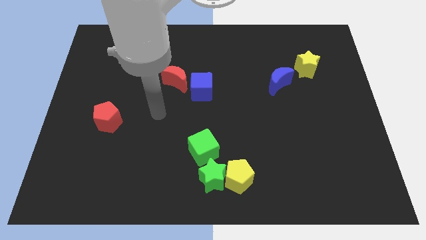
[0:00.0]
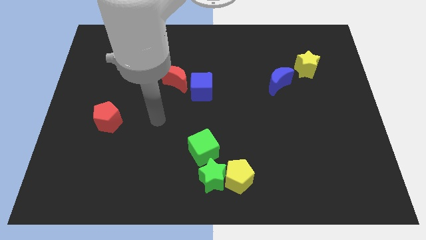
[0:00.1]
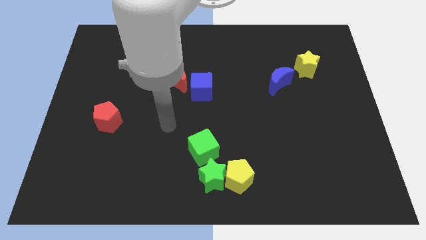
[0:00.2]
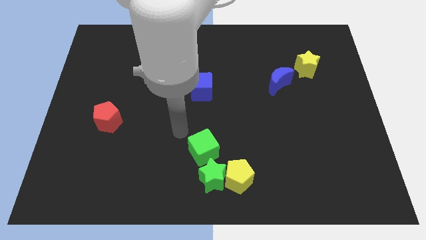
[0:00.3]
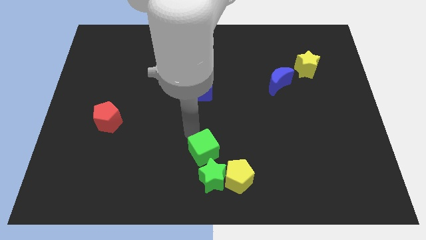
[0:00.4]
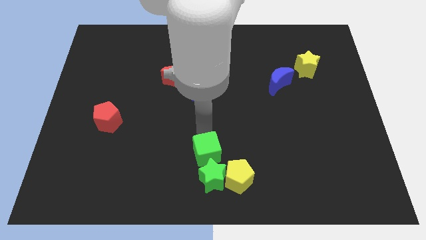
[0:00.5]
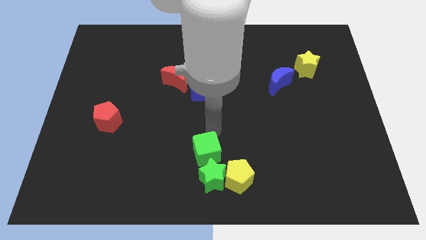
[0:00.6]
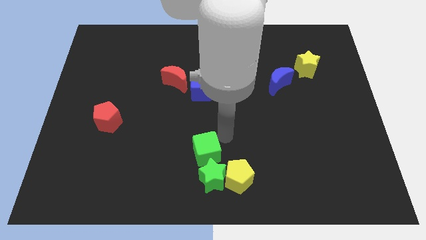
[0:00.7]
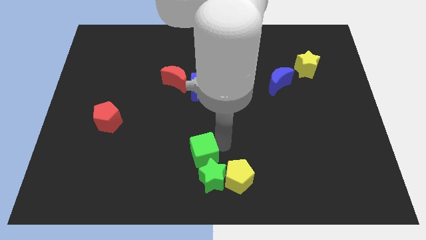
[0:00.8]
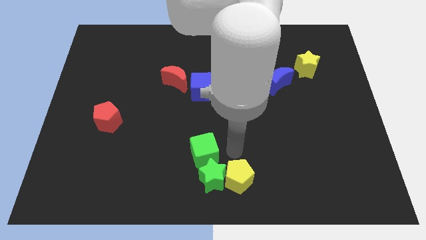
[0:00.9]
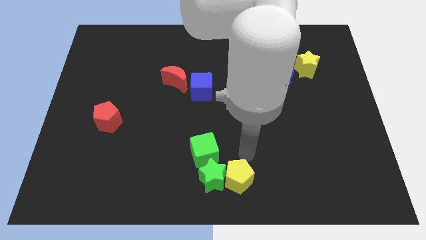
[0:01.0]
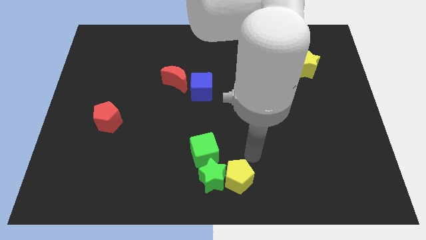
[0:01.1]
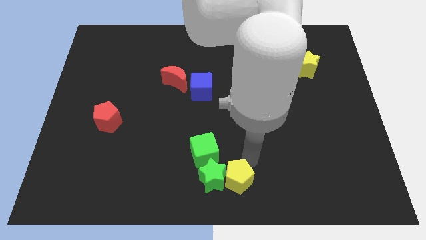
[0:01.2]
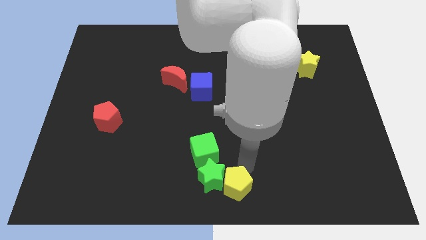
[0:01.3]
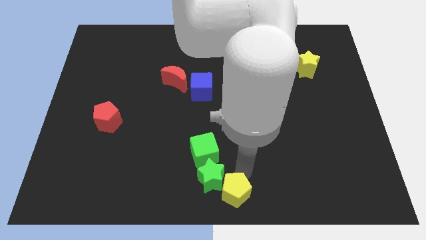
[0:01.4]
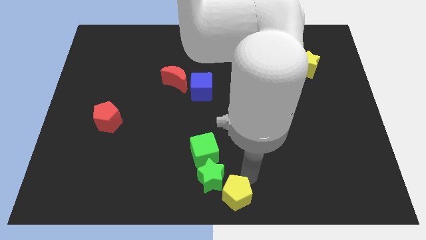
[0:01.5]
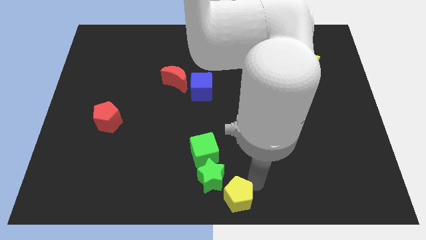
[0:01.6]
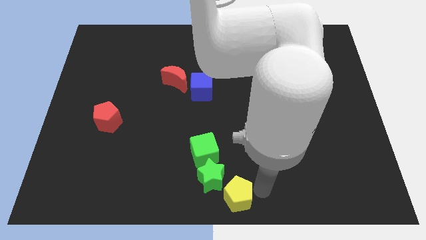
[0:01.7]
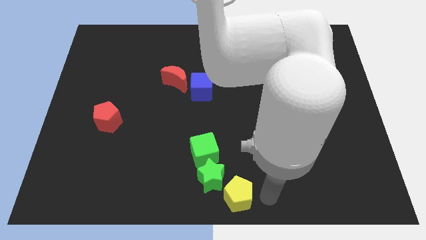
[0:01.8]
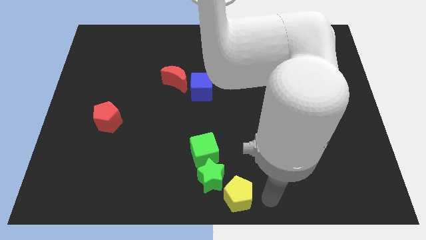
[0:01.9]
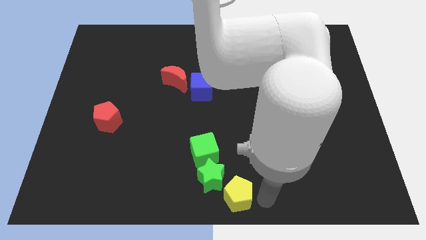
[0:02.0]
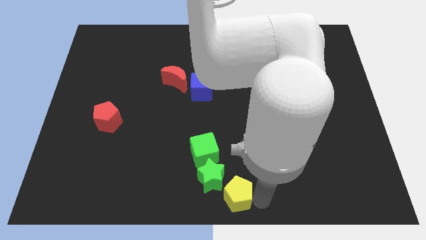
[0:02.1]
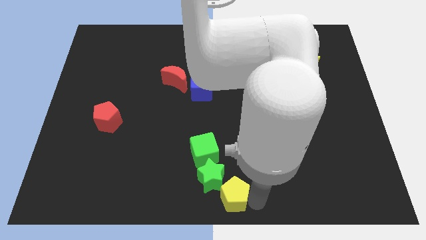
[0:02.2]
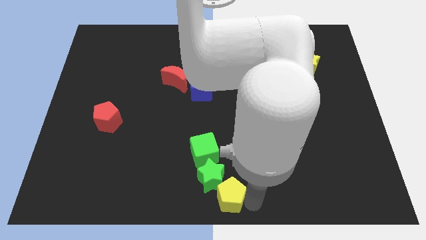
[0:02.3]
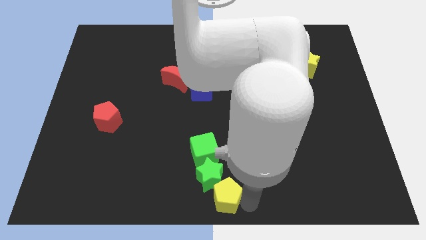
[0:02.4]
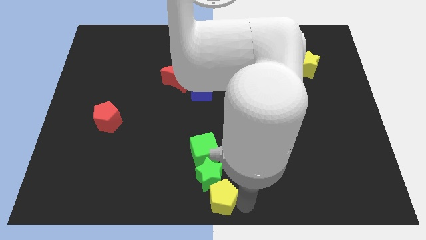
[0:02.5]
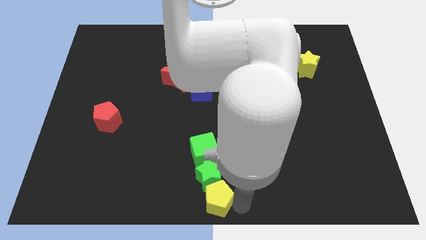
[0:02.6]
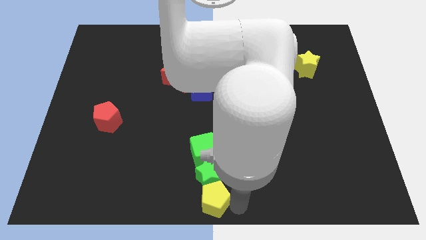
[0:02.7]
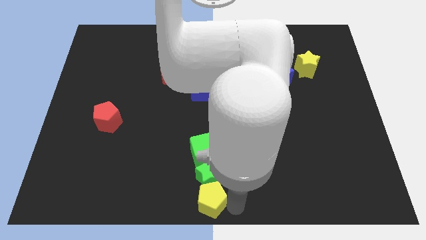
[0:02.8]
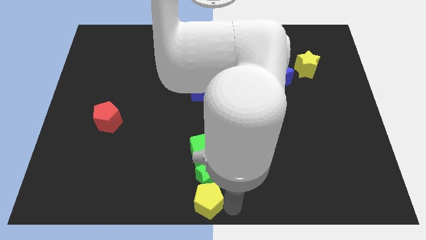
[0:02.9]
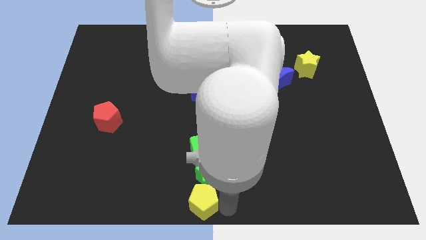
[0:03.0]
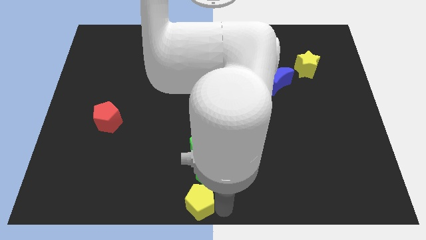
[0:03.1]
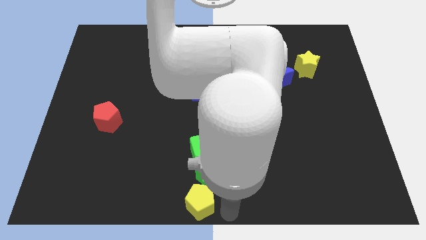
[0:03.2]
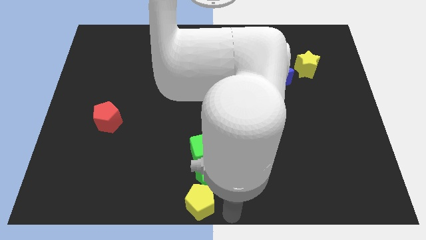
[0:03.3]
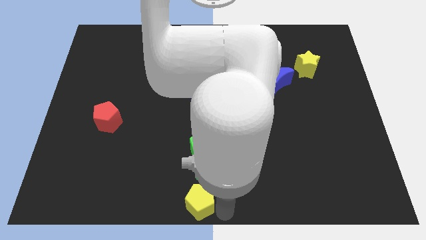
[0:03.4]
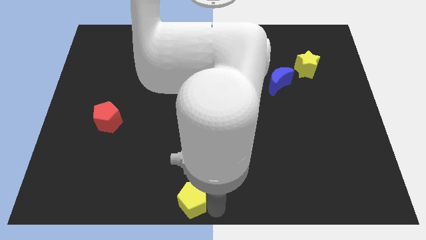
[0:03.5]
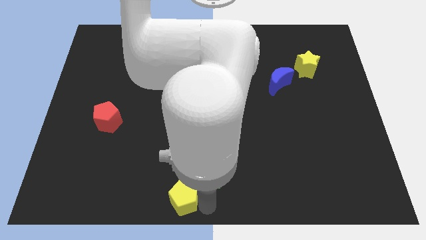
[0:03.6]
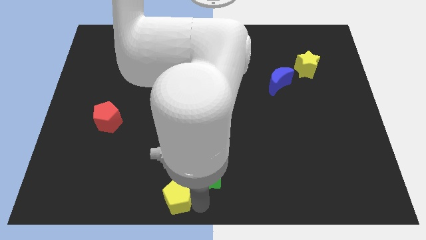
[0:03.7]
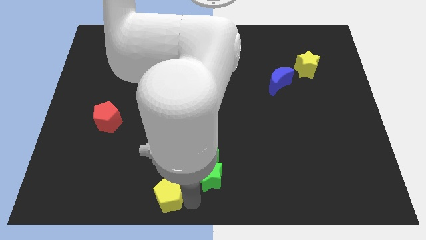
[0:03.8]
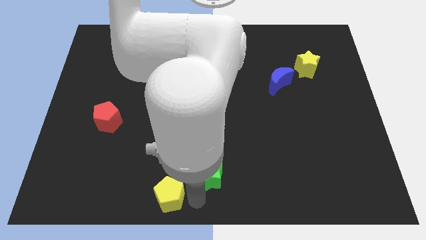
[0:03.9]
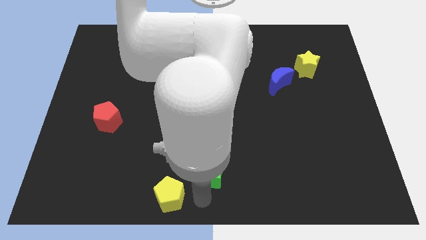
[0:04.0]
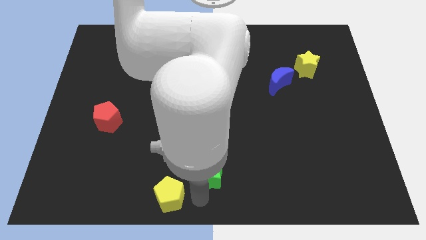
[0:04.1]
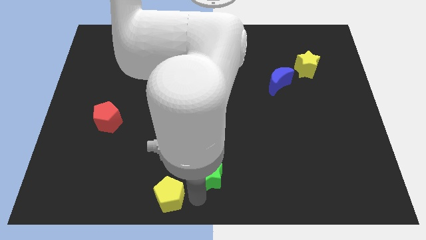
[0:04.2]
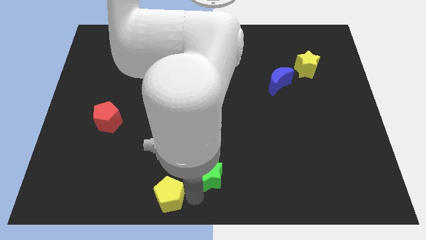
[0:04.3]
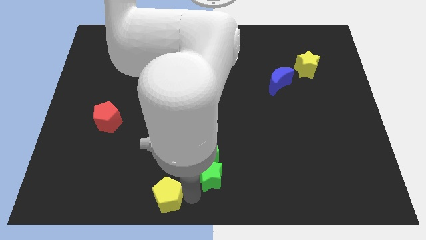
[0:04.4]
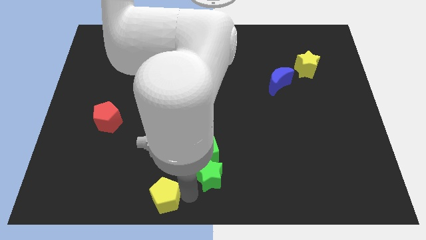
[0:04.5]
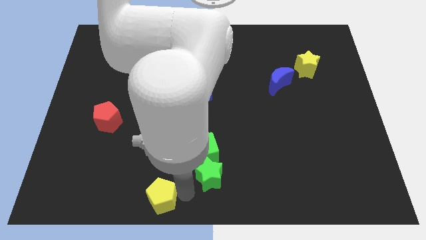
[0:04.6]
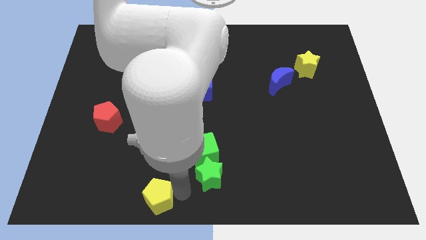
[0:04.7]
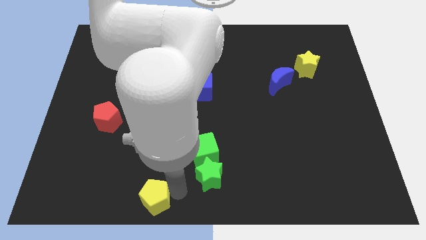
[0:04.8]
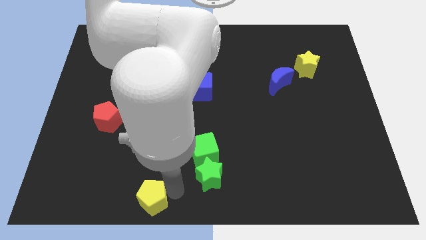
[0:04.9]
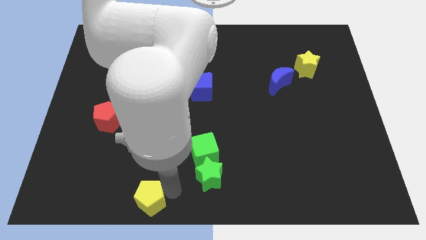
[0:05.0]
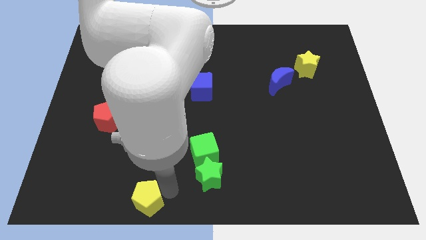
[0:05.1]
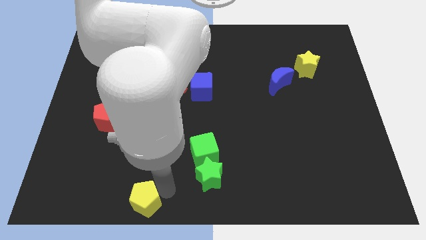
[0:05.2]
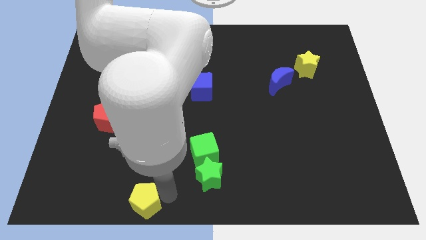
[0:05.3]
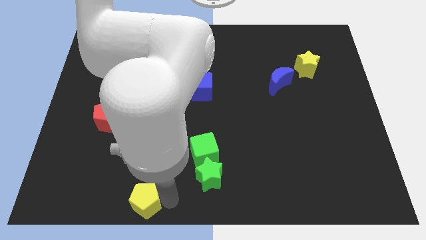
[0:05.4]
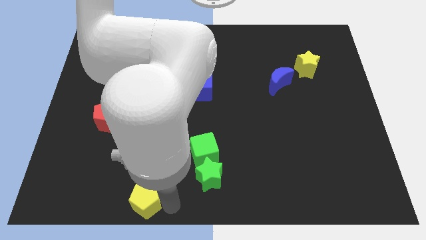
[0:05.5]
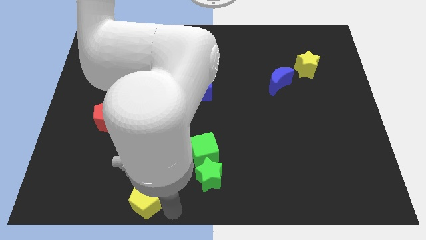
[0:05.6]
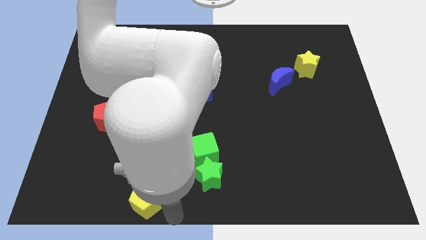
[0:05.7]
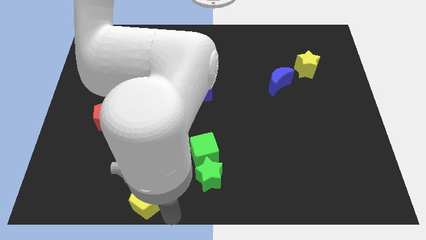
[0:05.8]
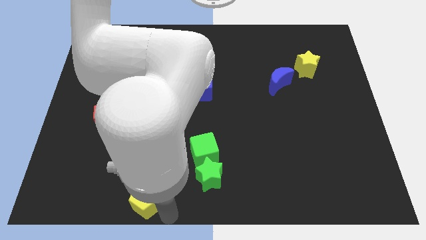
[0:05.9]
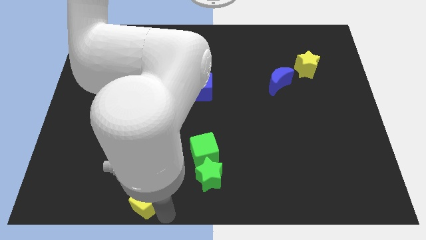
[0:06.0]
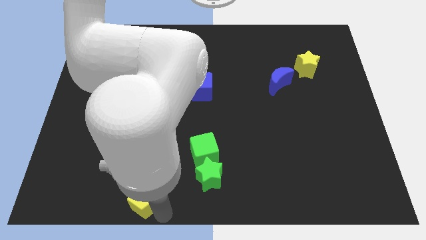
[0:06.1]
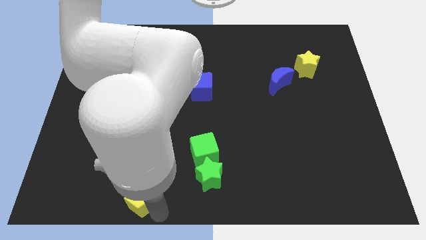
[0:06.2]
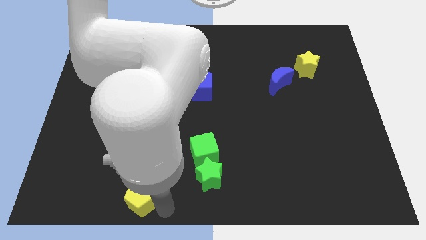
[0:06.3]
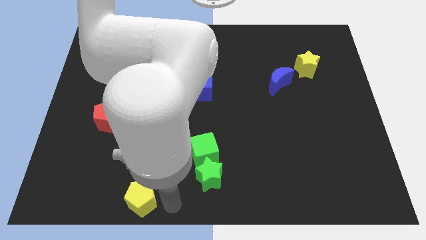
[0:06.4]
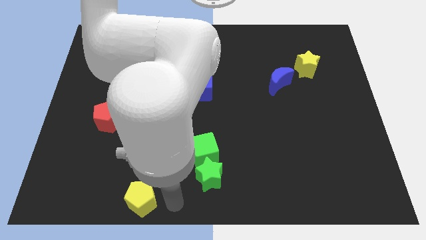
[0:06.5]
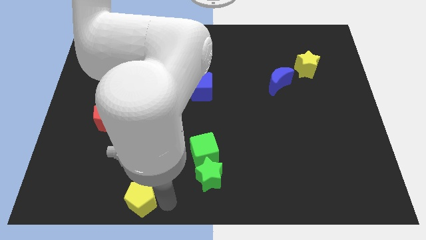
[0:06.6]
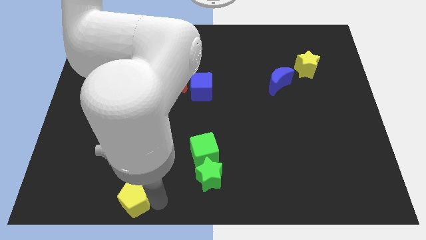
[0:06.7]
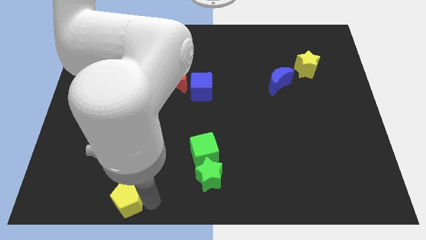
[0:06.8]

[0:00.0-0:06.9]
push the yellow pentagon left

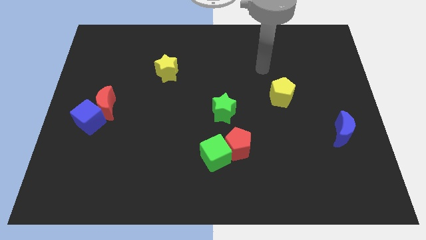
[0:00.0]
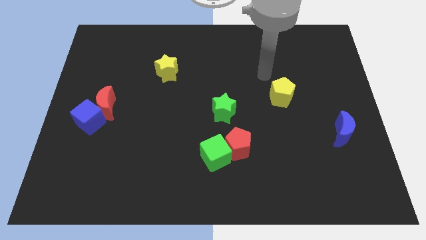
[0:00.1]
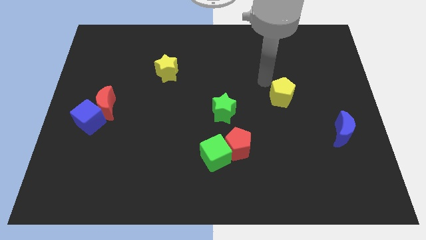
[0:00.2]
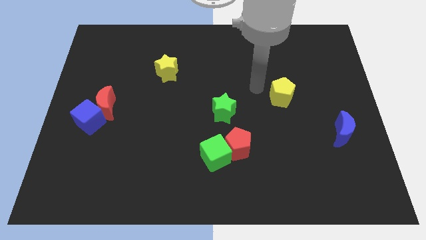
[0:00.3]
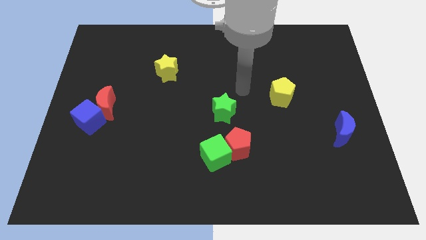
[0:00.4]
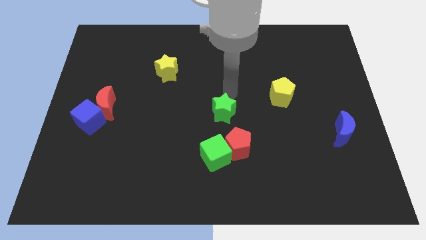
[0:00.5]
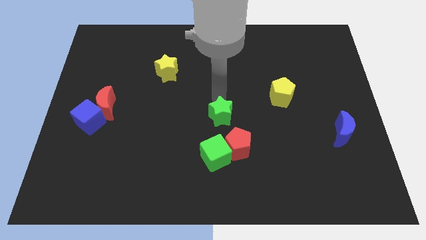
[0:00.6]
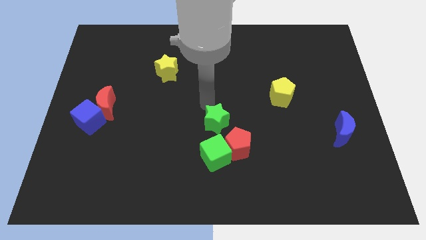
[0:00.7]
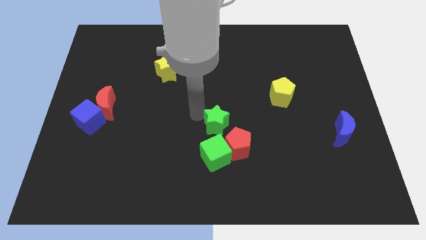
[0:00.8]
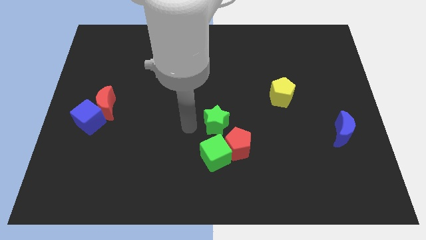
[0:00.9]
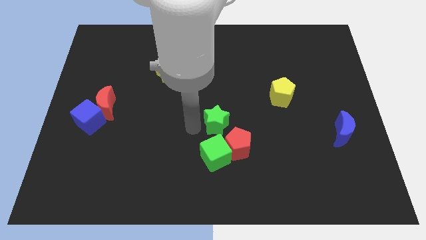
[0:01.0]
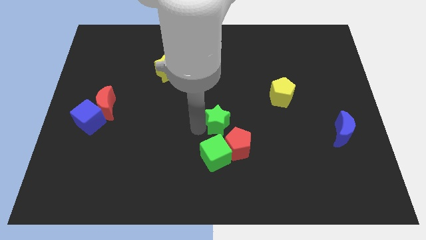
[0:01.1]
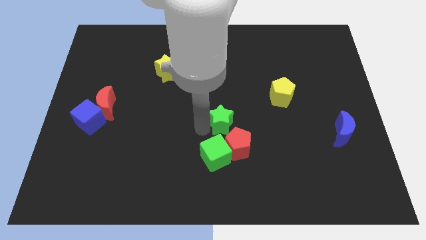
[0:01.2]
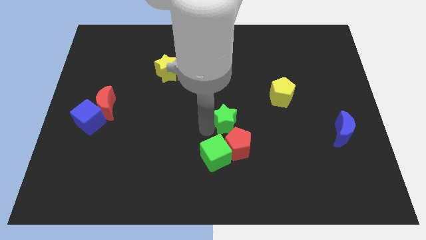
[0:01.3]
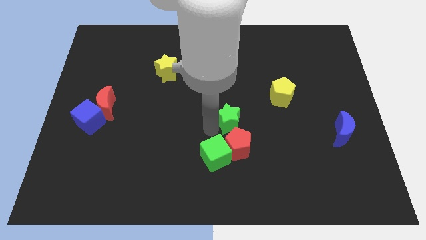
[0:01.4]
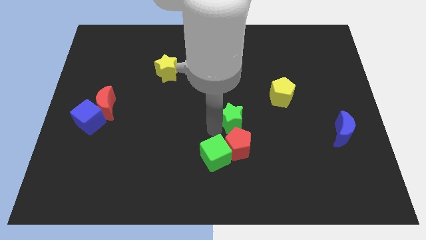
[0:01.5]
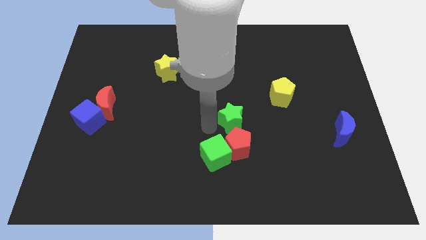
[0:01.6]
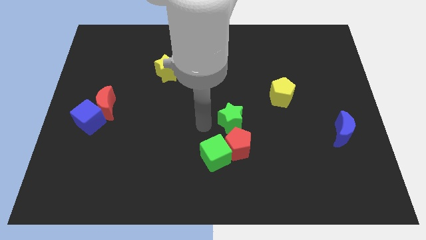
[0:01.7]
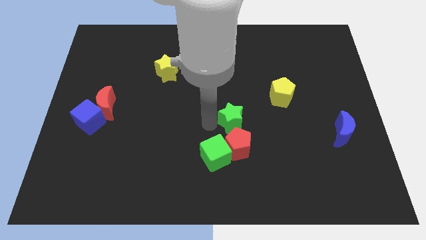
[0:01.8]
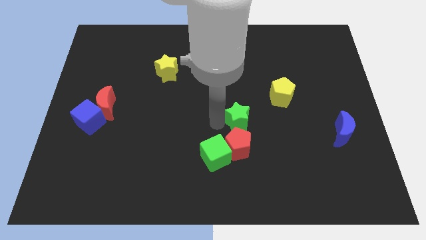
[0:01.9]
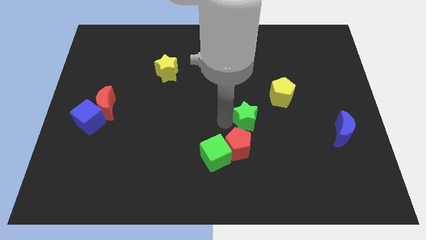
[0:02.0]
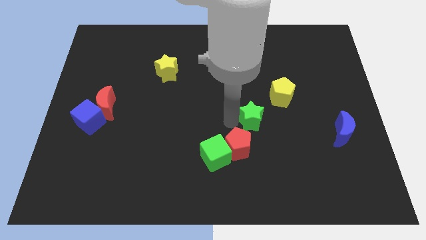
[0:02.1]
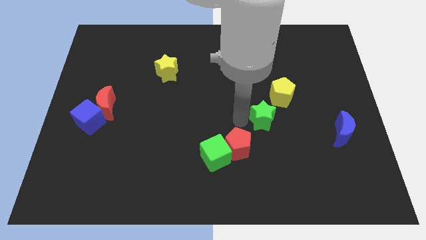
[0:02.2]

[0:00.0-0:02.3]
slightly slide the green star right
